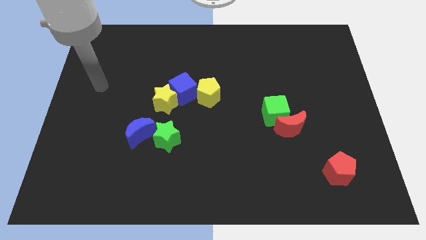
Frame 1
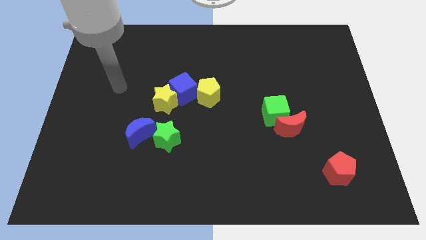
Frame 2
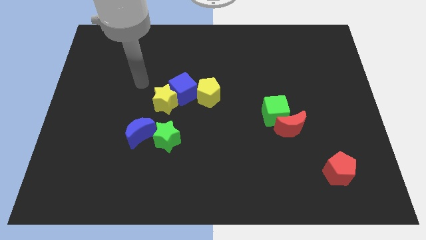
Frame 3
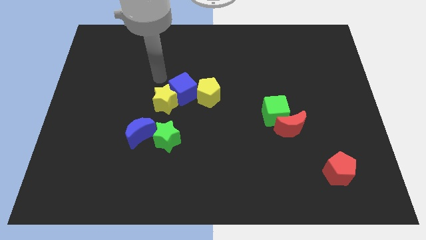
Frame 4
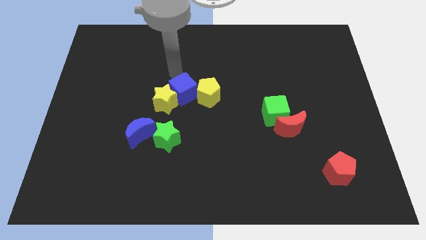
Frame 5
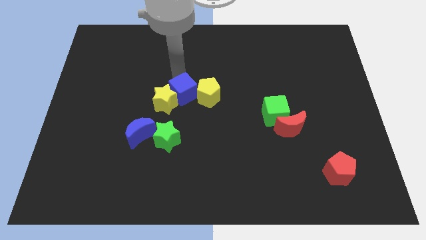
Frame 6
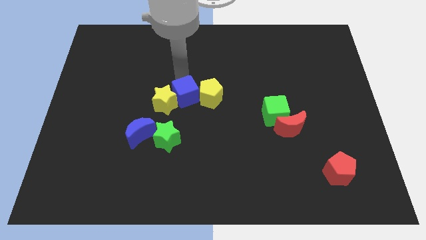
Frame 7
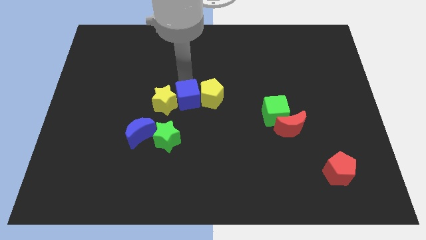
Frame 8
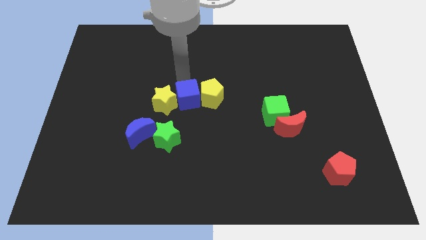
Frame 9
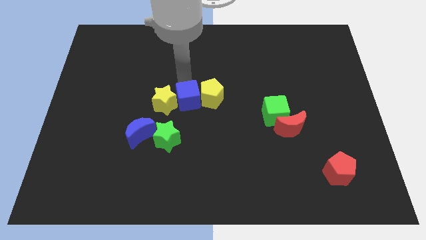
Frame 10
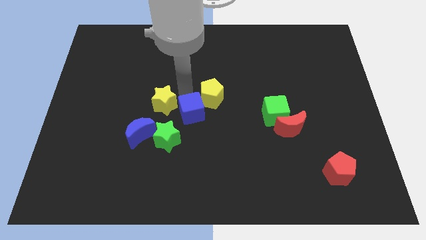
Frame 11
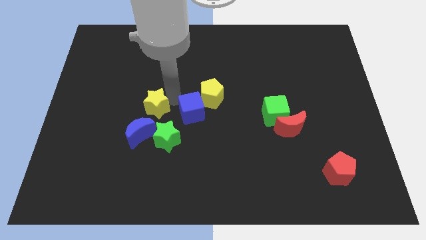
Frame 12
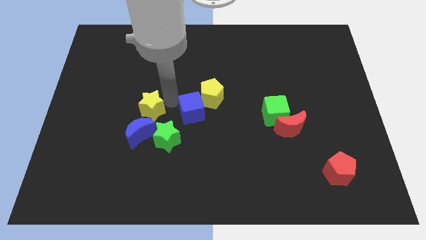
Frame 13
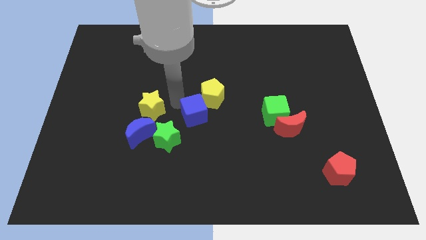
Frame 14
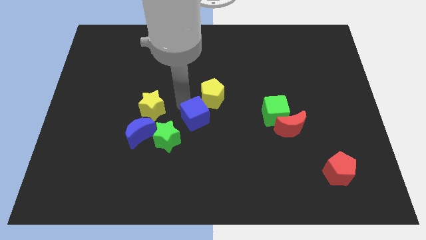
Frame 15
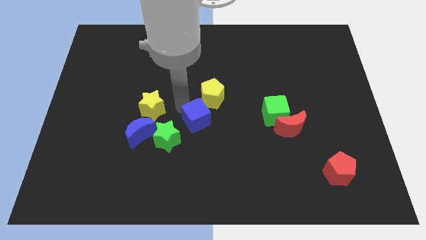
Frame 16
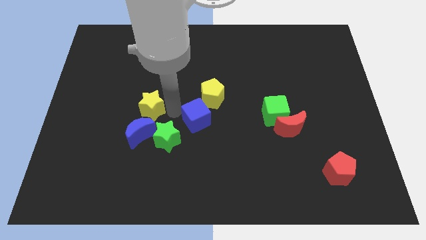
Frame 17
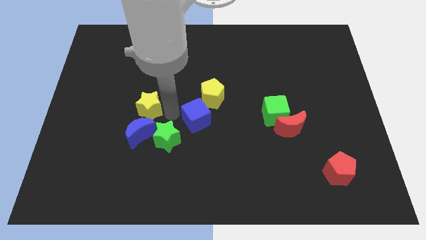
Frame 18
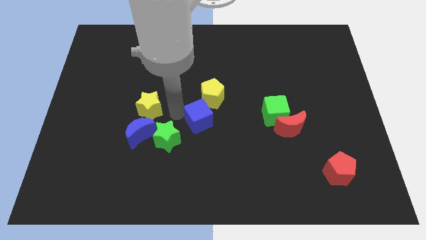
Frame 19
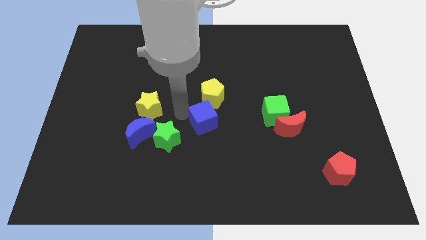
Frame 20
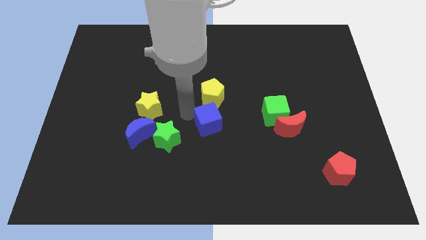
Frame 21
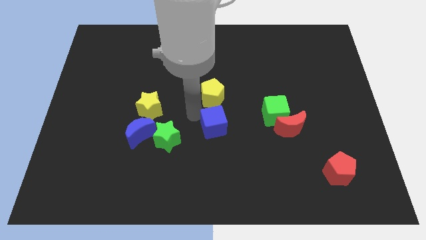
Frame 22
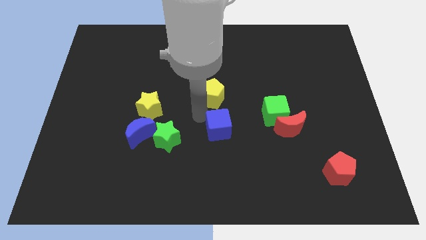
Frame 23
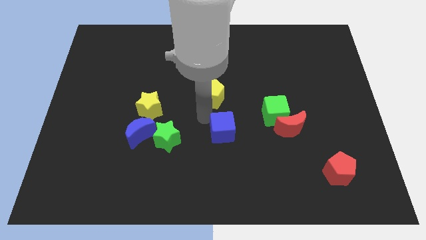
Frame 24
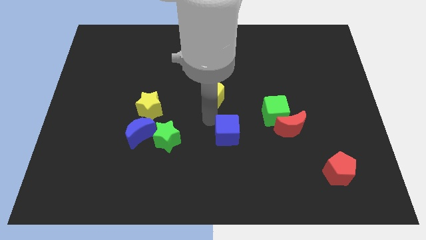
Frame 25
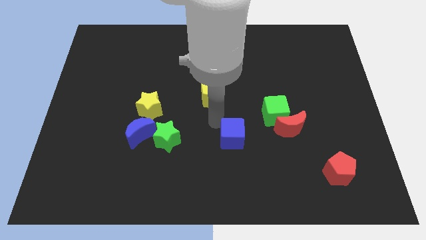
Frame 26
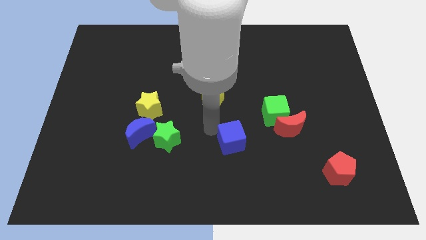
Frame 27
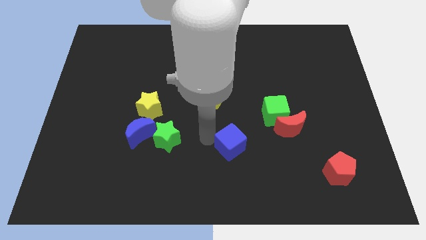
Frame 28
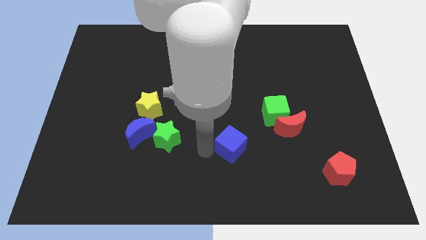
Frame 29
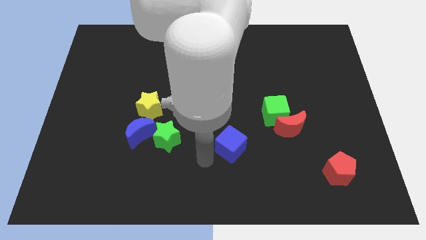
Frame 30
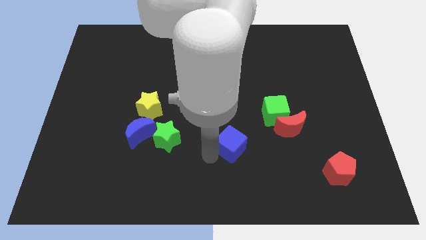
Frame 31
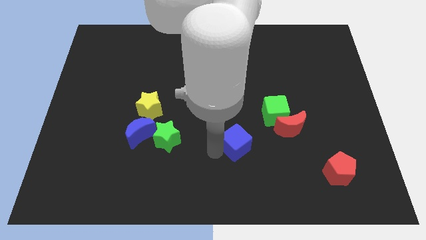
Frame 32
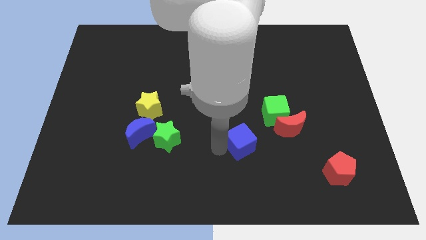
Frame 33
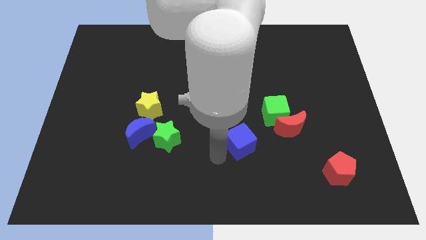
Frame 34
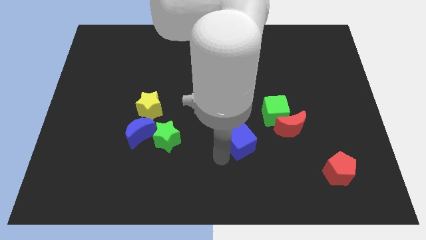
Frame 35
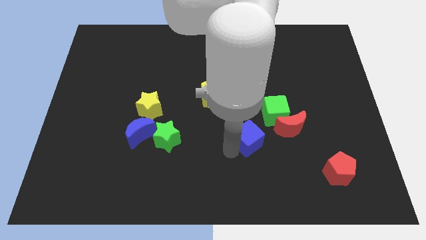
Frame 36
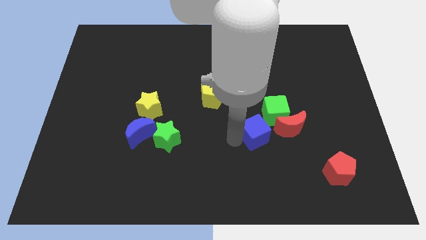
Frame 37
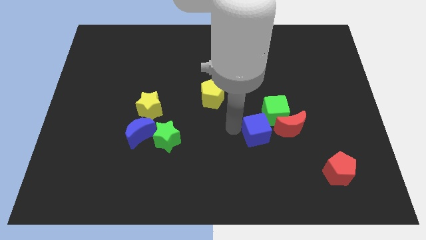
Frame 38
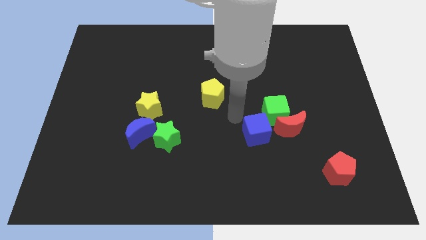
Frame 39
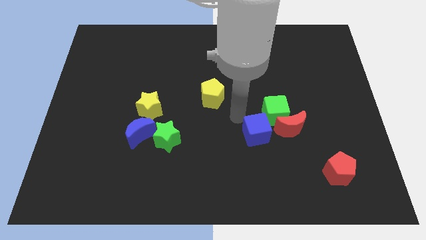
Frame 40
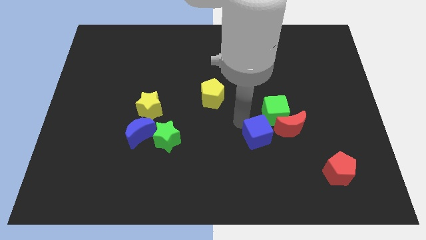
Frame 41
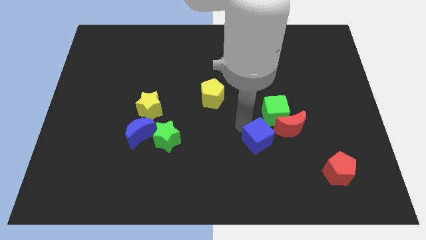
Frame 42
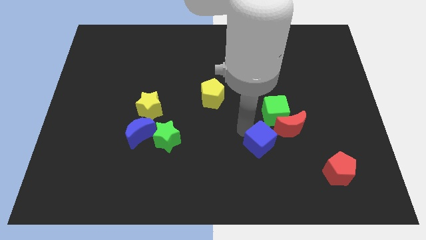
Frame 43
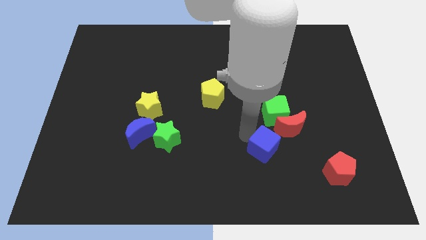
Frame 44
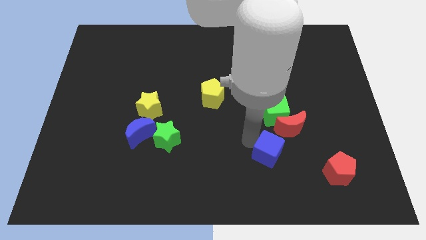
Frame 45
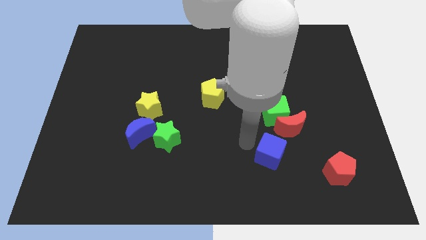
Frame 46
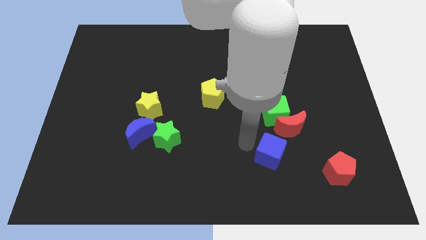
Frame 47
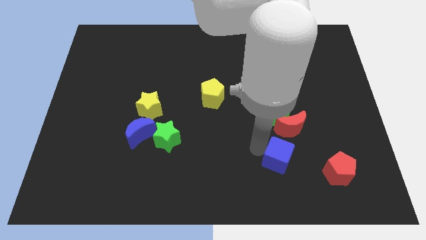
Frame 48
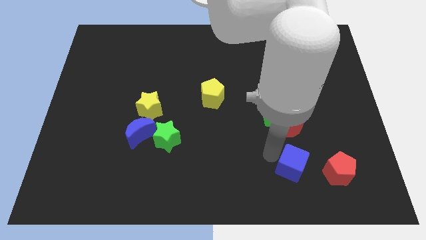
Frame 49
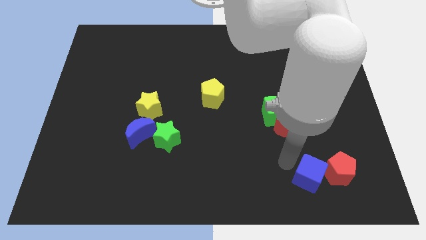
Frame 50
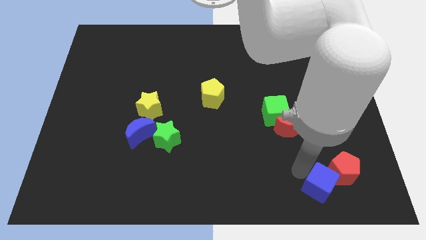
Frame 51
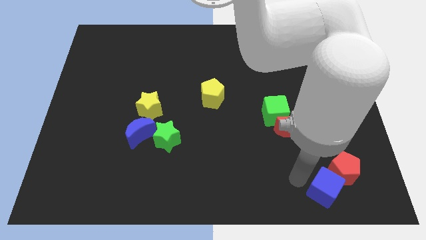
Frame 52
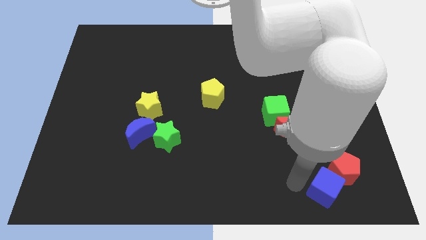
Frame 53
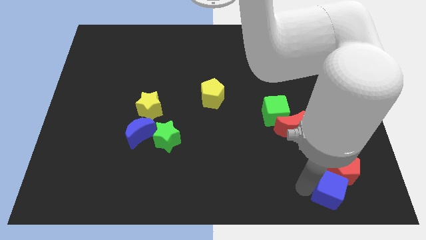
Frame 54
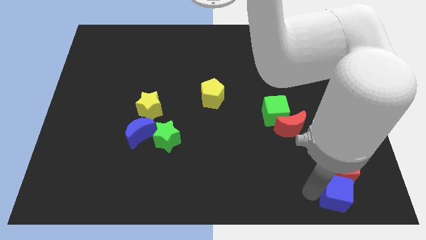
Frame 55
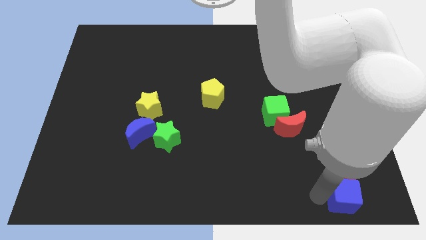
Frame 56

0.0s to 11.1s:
slide the blue cube to the bottom right corner
